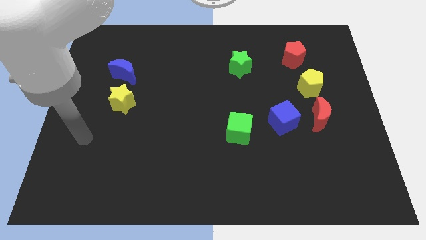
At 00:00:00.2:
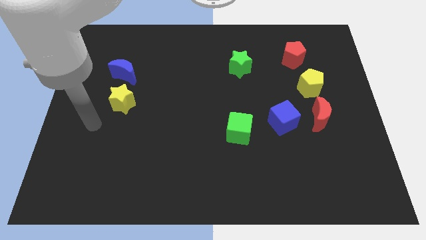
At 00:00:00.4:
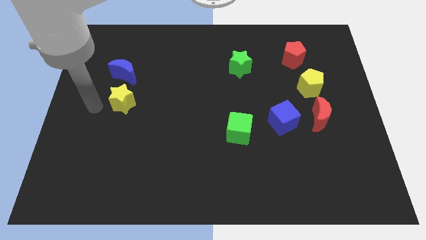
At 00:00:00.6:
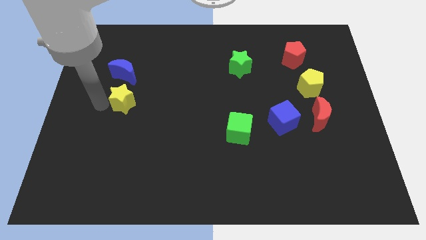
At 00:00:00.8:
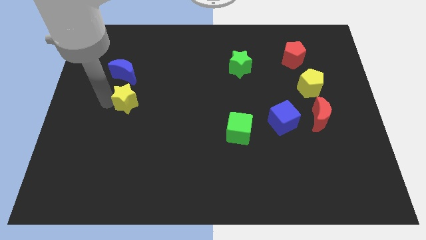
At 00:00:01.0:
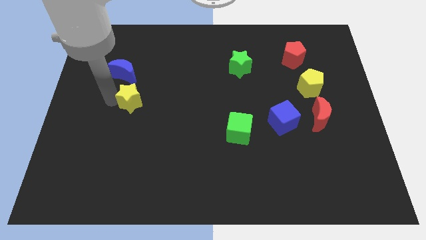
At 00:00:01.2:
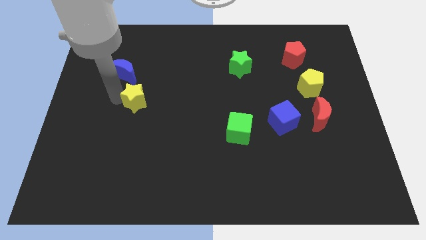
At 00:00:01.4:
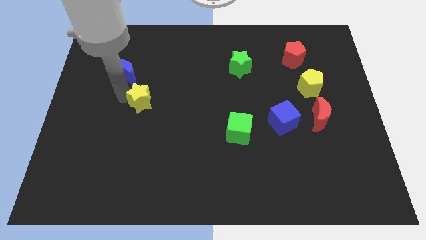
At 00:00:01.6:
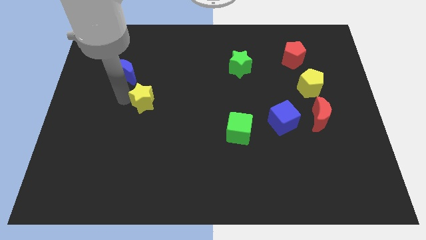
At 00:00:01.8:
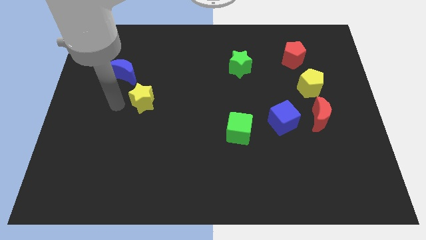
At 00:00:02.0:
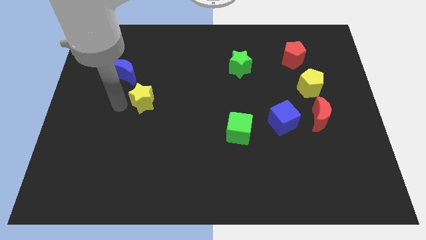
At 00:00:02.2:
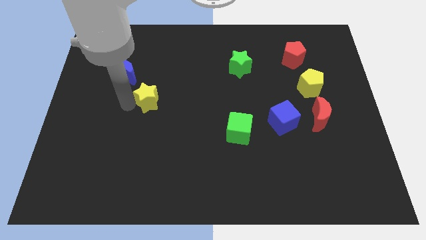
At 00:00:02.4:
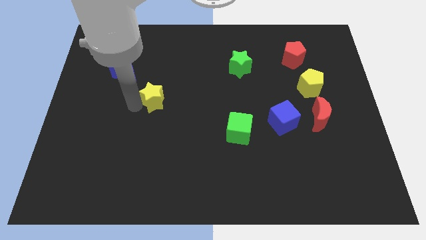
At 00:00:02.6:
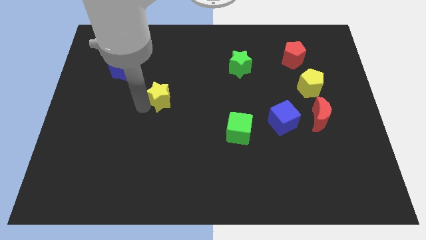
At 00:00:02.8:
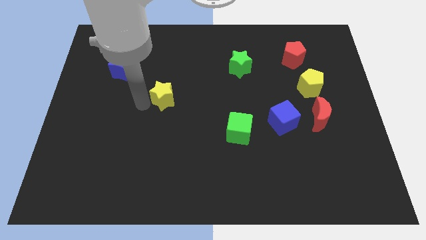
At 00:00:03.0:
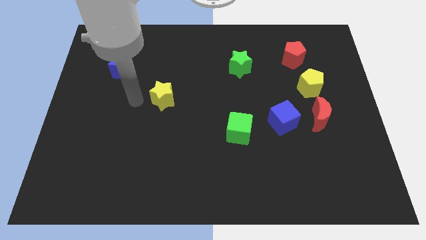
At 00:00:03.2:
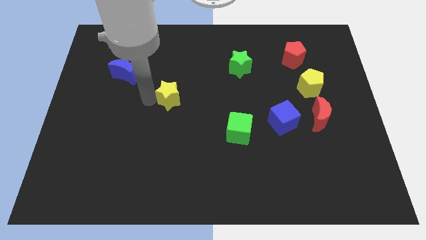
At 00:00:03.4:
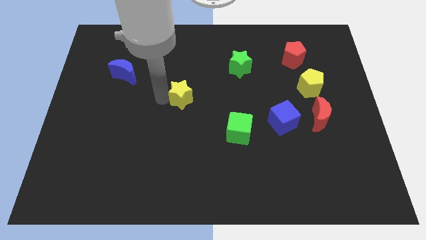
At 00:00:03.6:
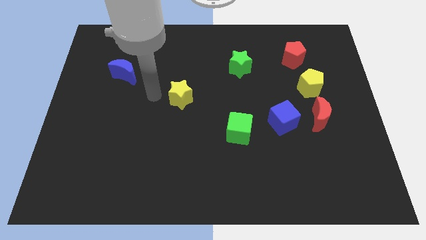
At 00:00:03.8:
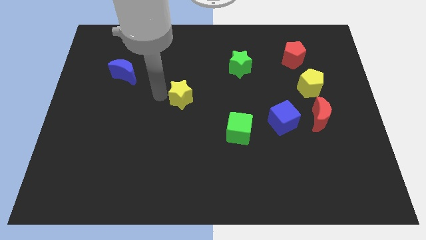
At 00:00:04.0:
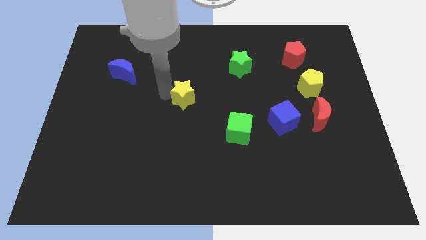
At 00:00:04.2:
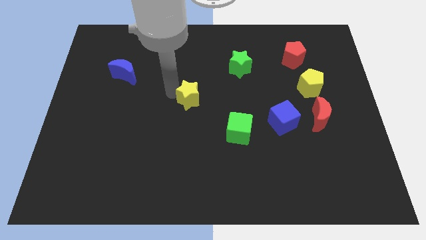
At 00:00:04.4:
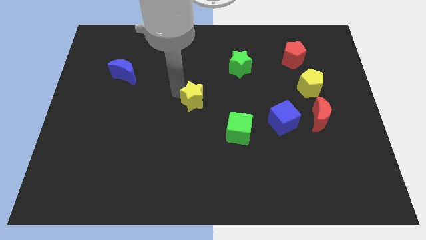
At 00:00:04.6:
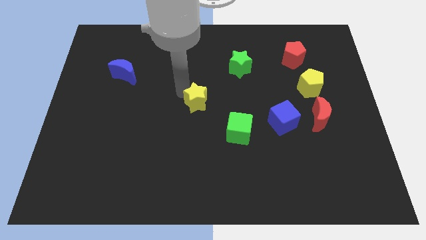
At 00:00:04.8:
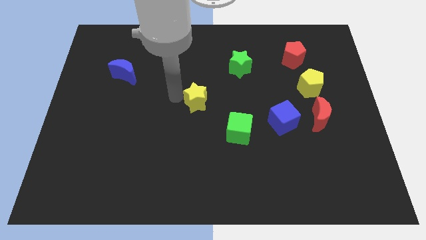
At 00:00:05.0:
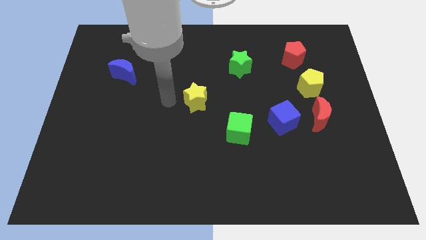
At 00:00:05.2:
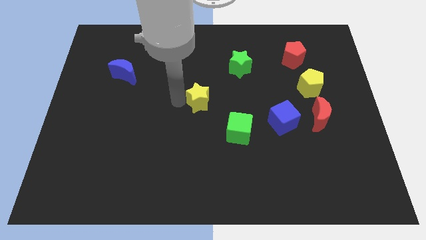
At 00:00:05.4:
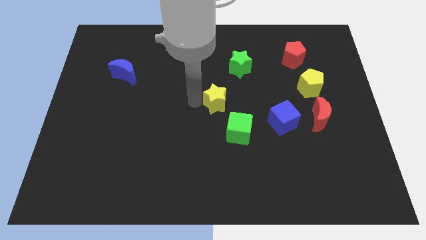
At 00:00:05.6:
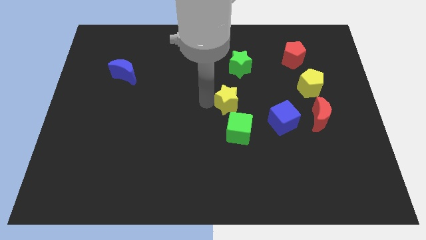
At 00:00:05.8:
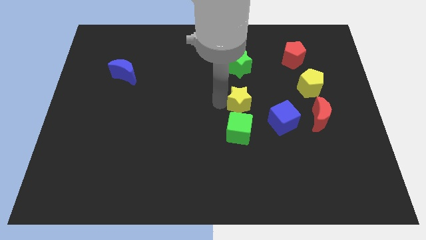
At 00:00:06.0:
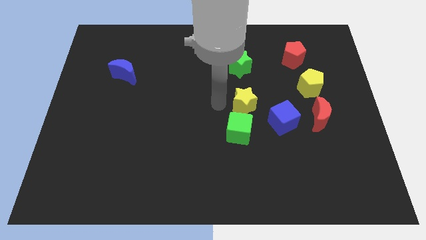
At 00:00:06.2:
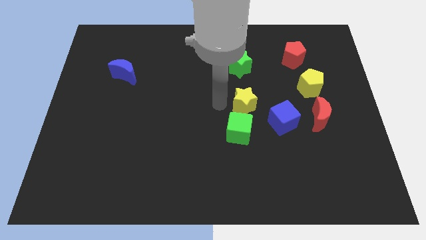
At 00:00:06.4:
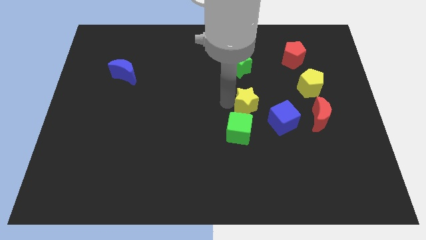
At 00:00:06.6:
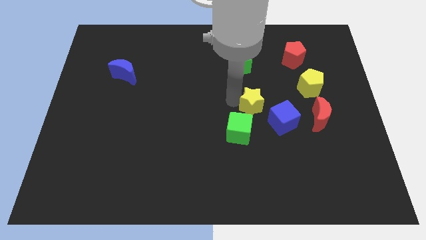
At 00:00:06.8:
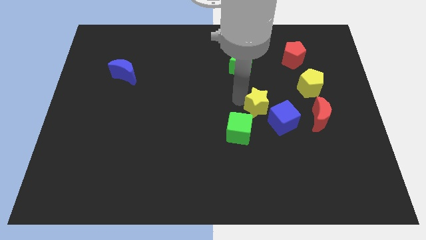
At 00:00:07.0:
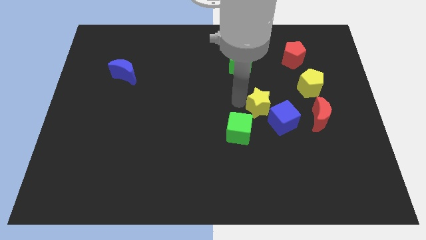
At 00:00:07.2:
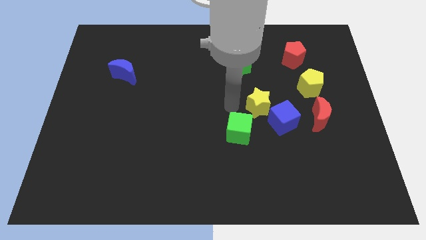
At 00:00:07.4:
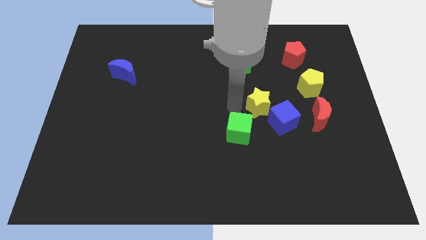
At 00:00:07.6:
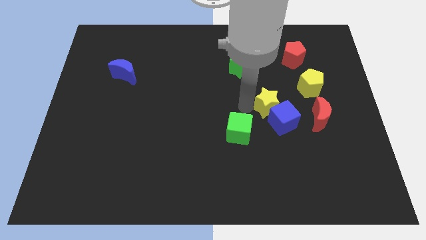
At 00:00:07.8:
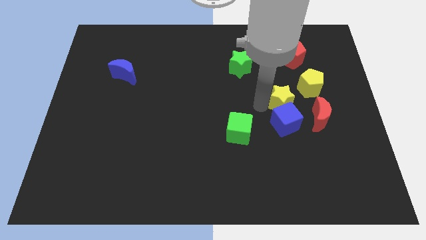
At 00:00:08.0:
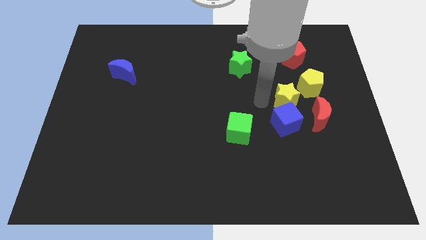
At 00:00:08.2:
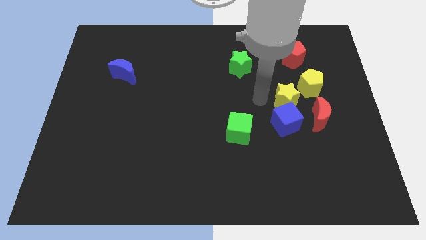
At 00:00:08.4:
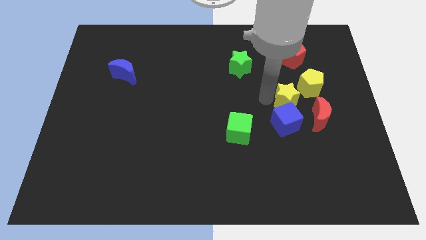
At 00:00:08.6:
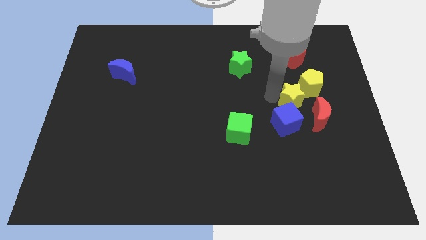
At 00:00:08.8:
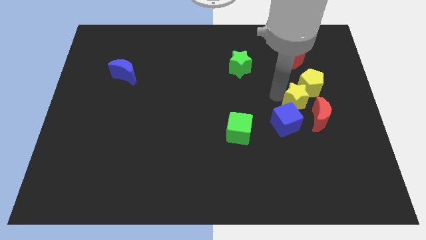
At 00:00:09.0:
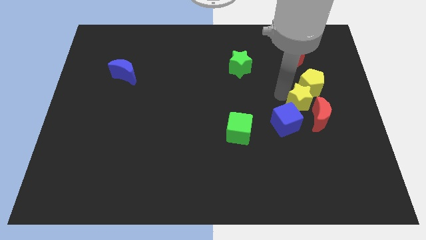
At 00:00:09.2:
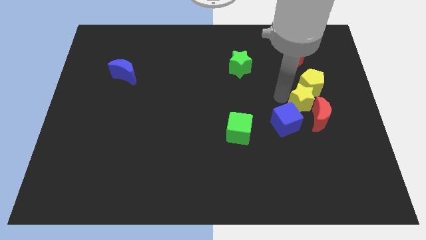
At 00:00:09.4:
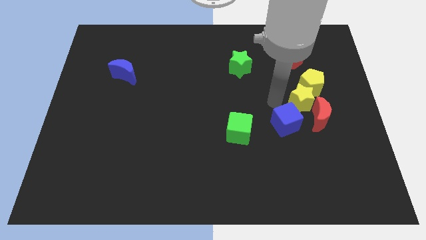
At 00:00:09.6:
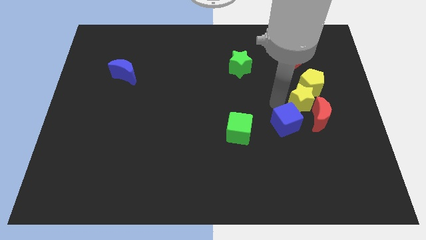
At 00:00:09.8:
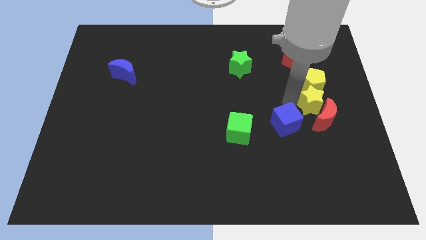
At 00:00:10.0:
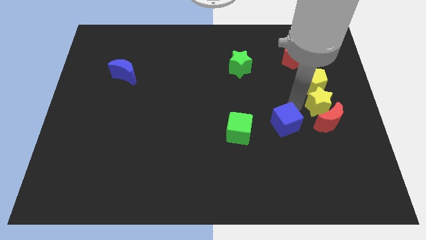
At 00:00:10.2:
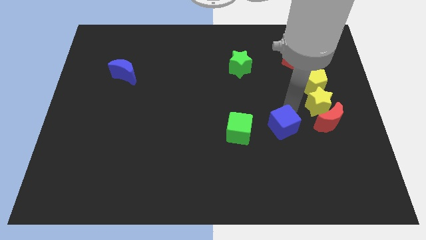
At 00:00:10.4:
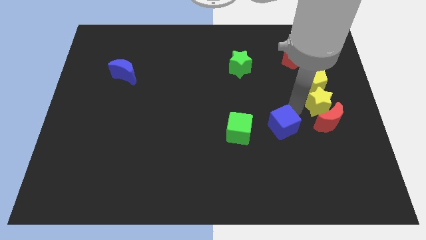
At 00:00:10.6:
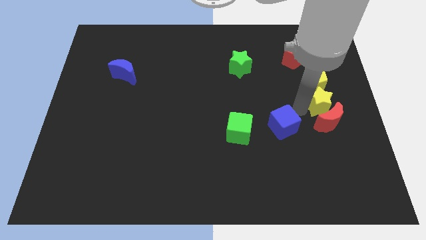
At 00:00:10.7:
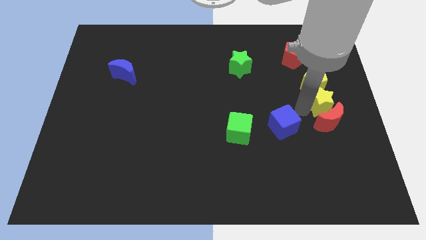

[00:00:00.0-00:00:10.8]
push the yellow star to the center right

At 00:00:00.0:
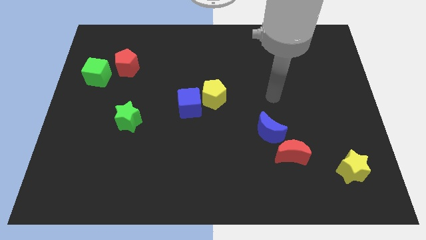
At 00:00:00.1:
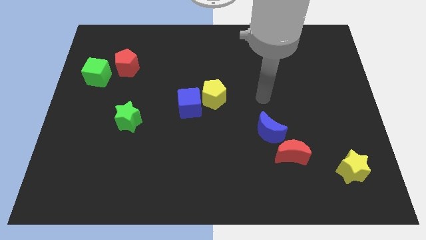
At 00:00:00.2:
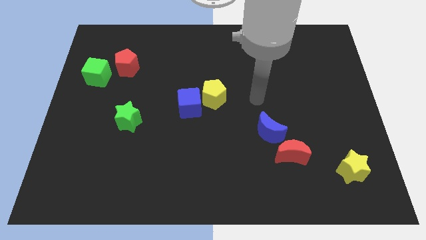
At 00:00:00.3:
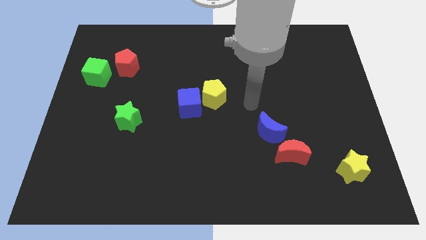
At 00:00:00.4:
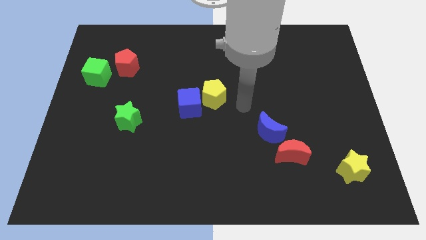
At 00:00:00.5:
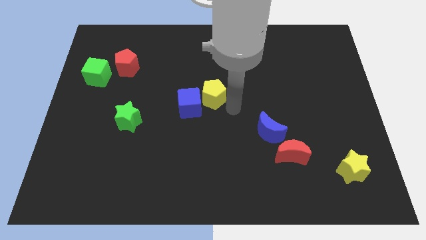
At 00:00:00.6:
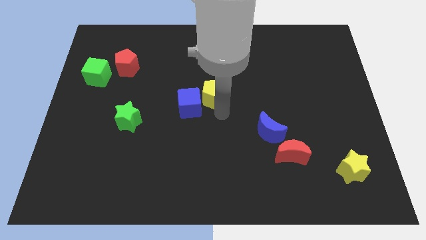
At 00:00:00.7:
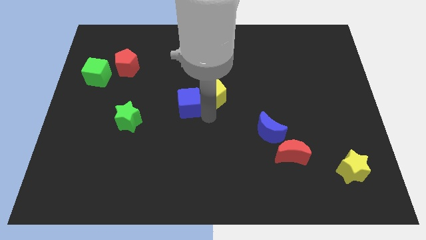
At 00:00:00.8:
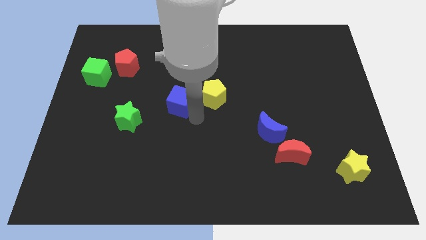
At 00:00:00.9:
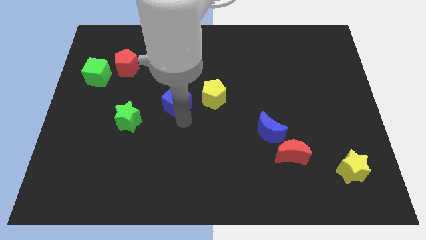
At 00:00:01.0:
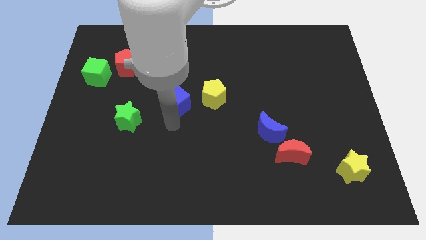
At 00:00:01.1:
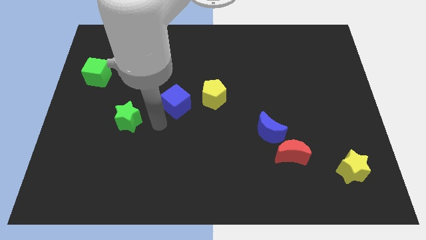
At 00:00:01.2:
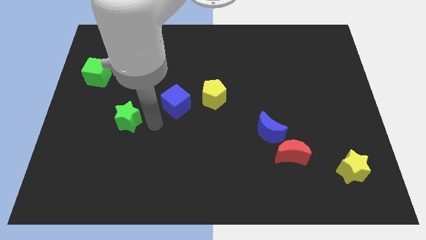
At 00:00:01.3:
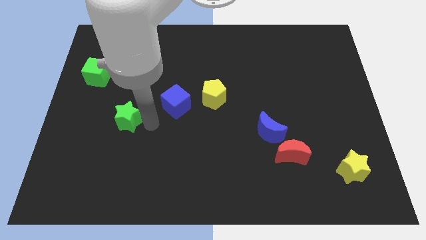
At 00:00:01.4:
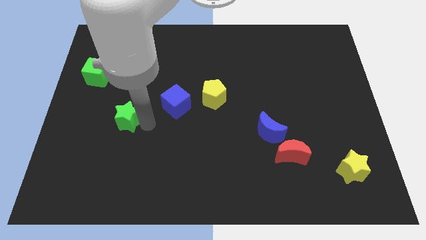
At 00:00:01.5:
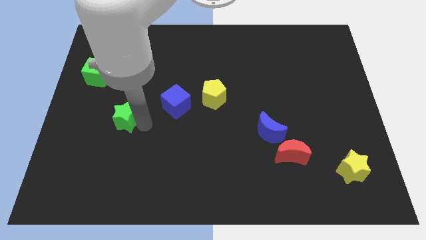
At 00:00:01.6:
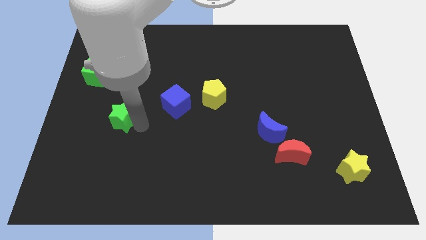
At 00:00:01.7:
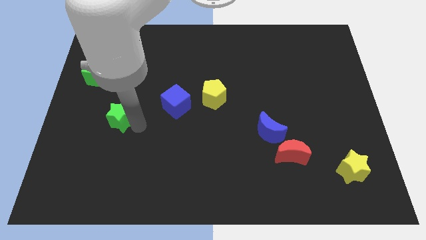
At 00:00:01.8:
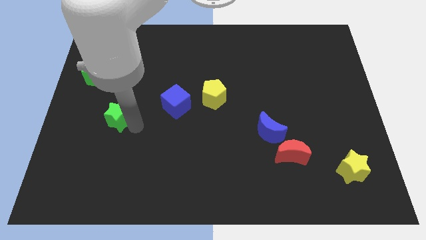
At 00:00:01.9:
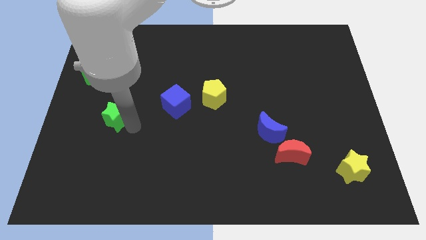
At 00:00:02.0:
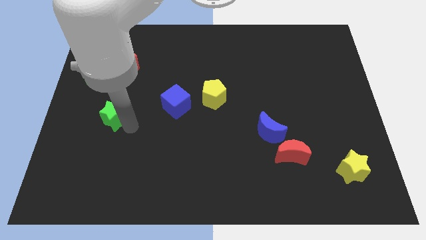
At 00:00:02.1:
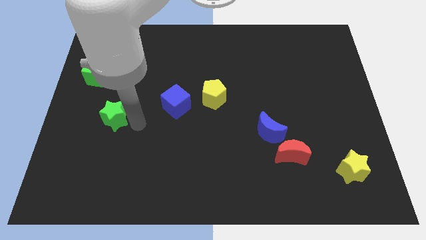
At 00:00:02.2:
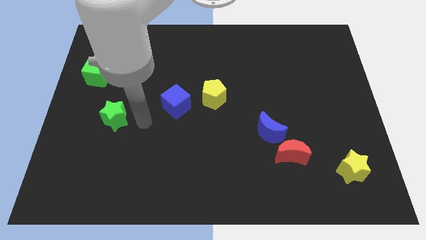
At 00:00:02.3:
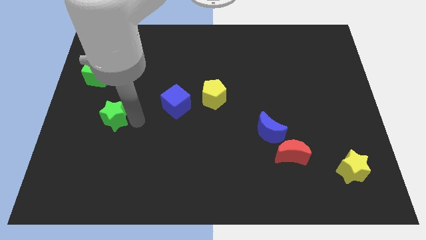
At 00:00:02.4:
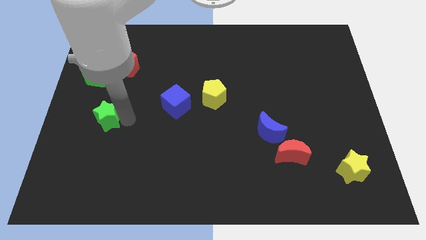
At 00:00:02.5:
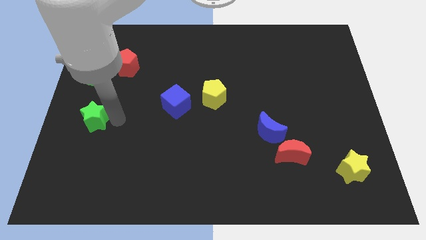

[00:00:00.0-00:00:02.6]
slide the green star to the center left
